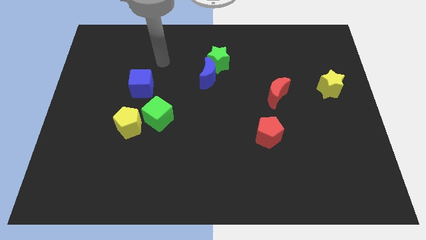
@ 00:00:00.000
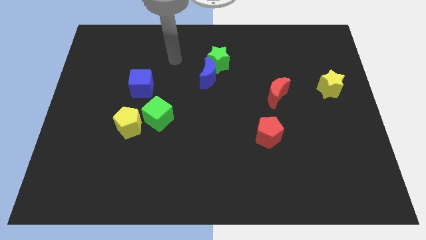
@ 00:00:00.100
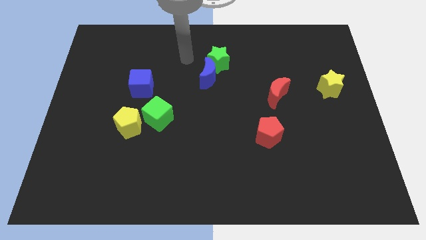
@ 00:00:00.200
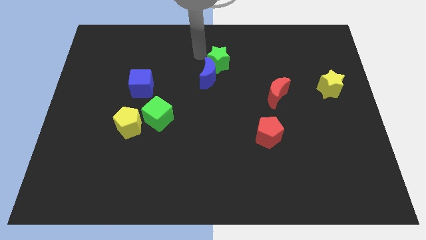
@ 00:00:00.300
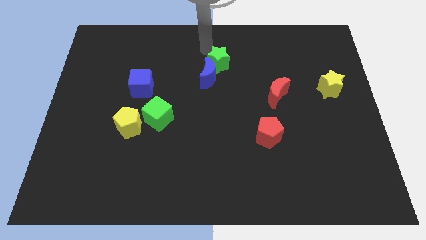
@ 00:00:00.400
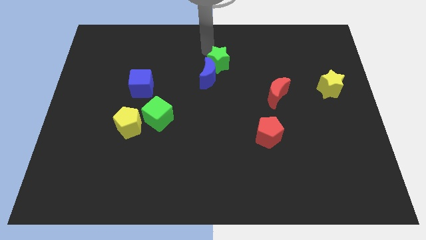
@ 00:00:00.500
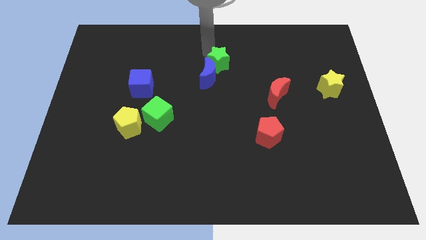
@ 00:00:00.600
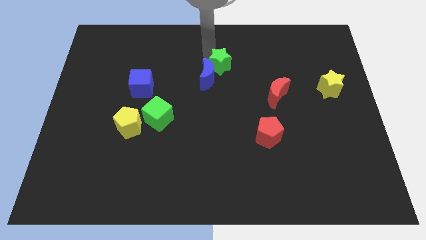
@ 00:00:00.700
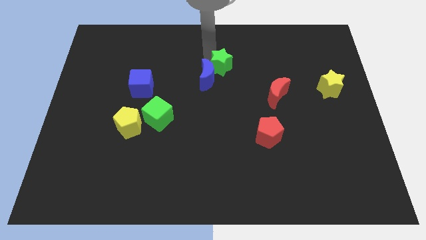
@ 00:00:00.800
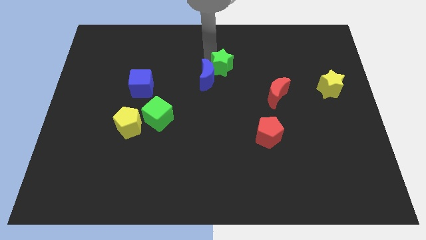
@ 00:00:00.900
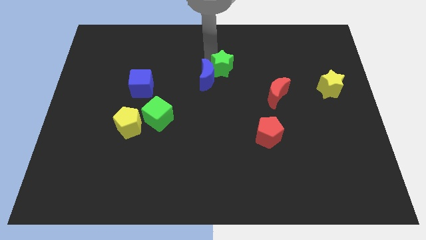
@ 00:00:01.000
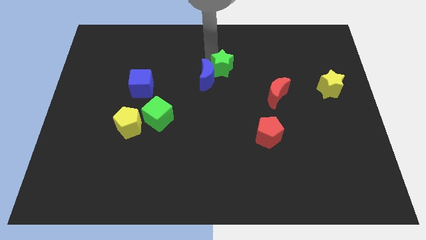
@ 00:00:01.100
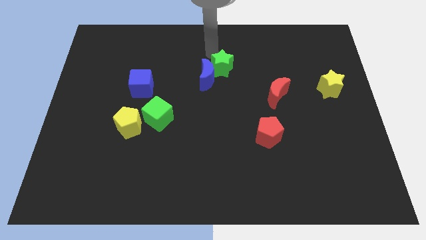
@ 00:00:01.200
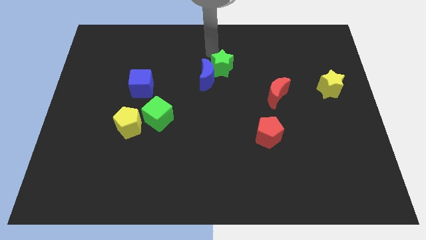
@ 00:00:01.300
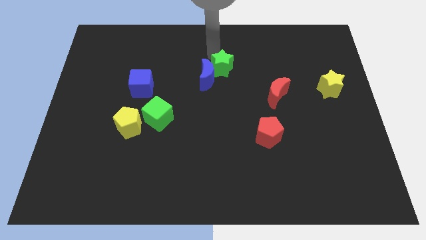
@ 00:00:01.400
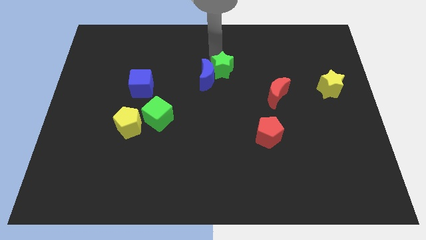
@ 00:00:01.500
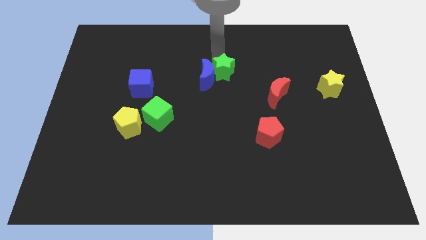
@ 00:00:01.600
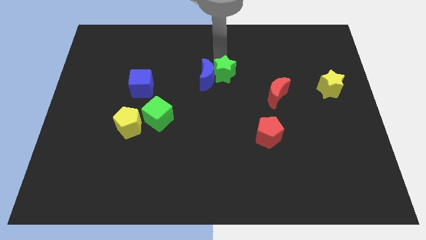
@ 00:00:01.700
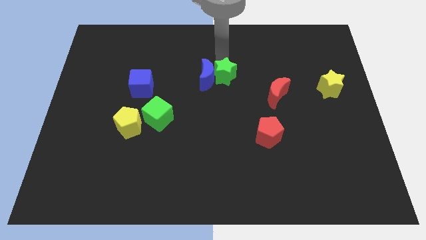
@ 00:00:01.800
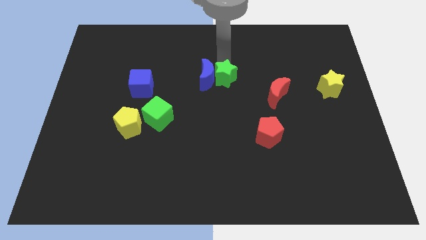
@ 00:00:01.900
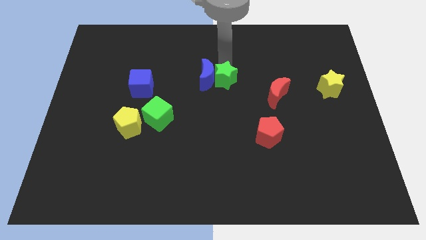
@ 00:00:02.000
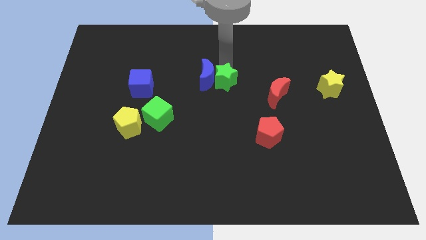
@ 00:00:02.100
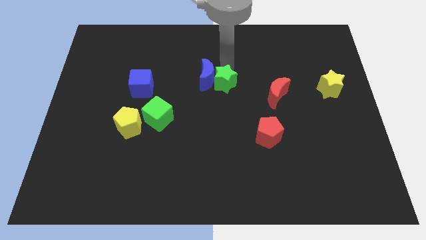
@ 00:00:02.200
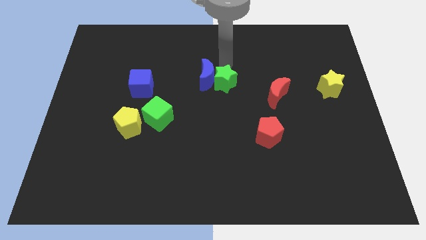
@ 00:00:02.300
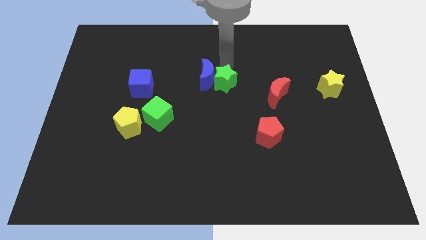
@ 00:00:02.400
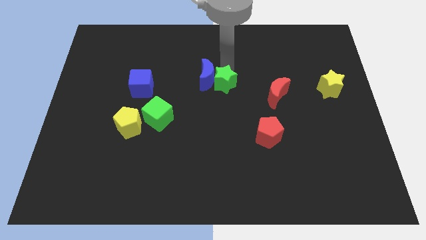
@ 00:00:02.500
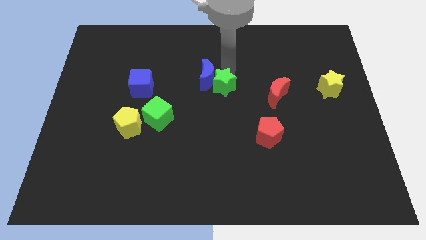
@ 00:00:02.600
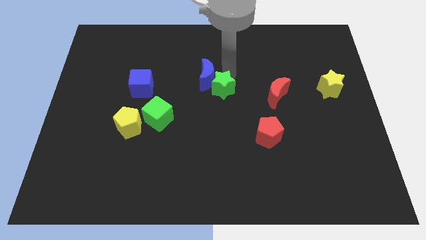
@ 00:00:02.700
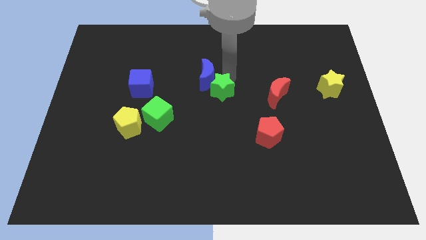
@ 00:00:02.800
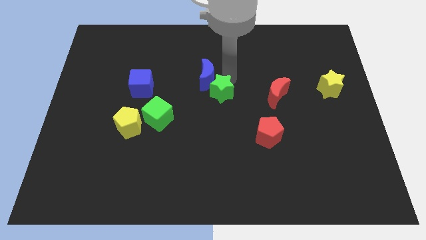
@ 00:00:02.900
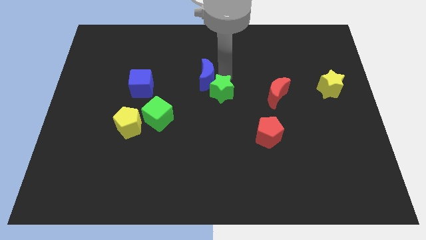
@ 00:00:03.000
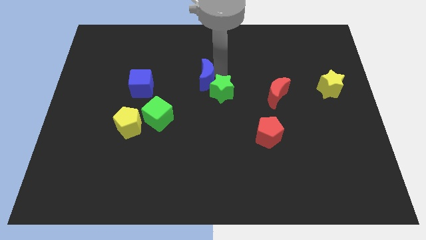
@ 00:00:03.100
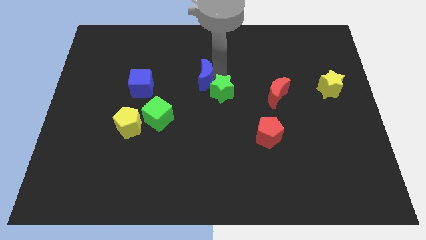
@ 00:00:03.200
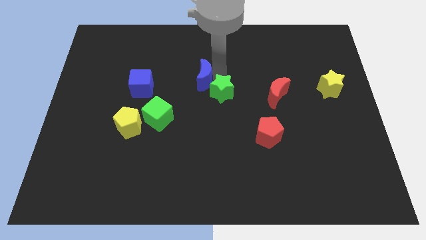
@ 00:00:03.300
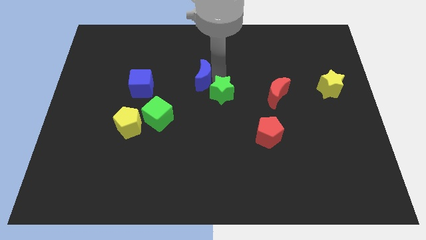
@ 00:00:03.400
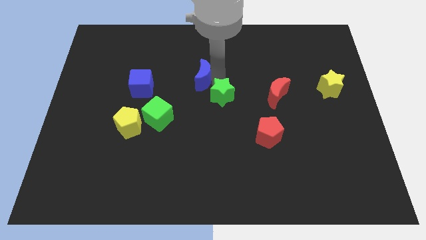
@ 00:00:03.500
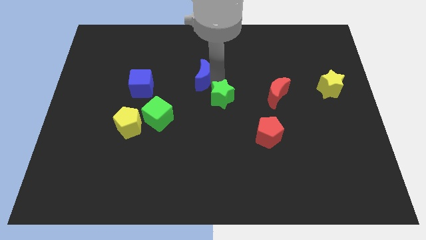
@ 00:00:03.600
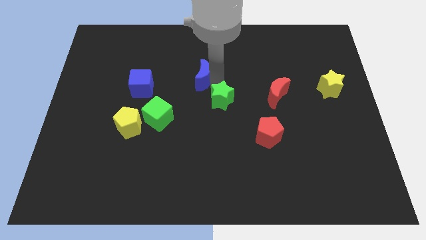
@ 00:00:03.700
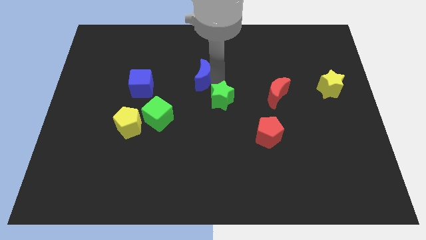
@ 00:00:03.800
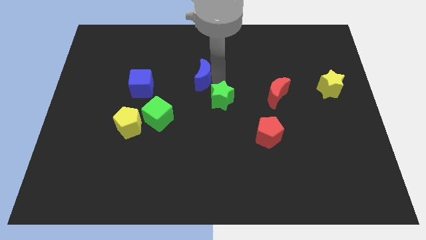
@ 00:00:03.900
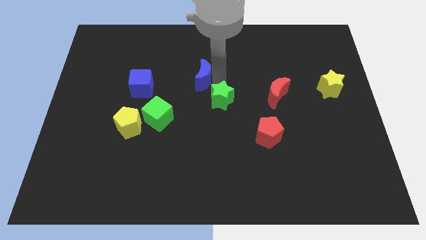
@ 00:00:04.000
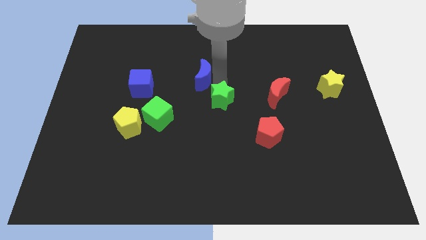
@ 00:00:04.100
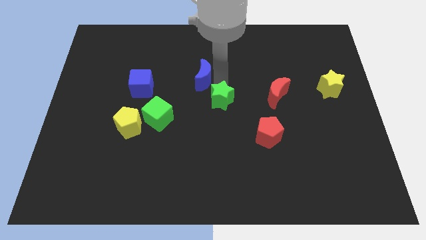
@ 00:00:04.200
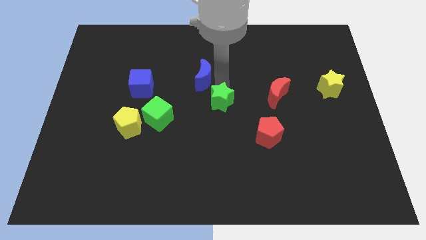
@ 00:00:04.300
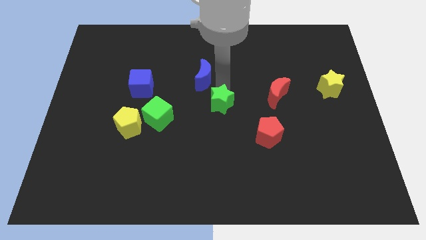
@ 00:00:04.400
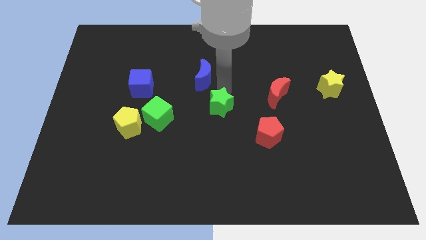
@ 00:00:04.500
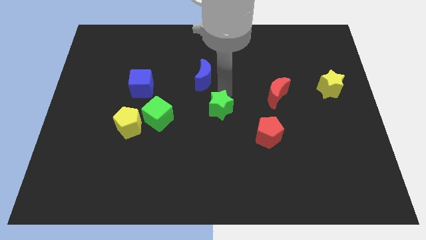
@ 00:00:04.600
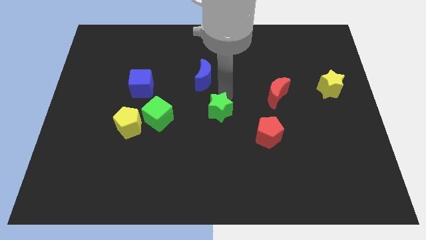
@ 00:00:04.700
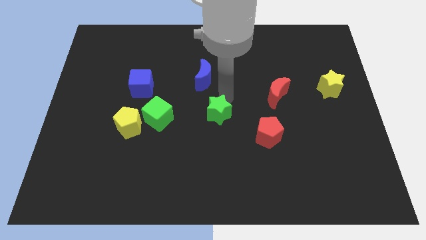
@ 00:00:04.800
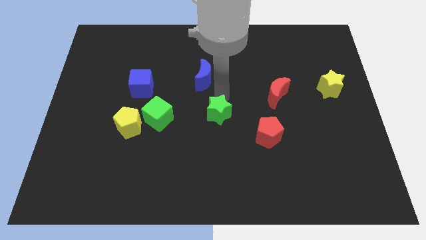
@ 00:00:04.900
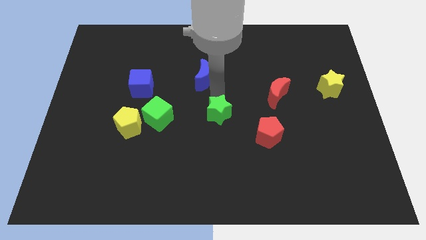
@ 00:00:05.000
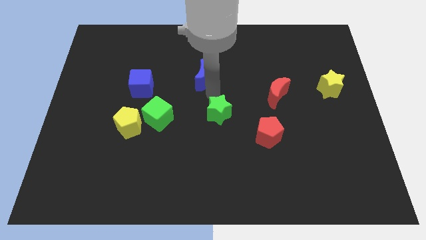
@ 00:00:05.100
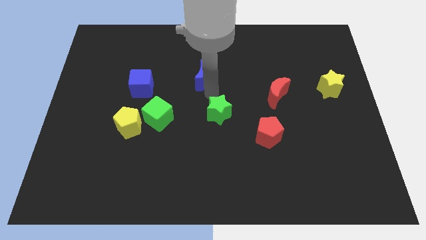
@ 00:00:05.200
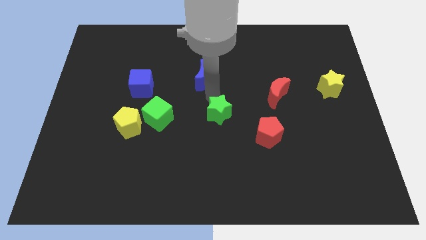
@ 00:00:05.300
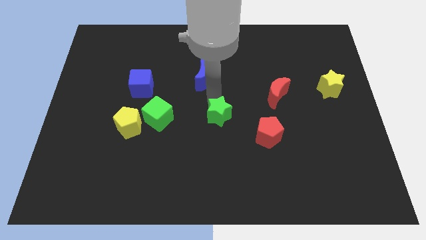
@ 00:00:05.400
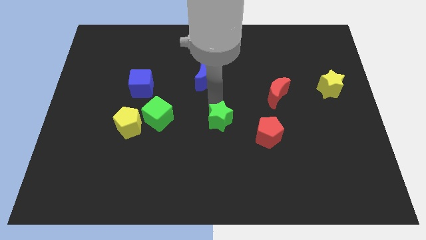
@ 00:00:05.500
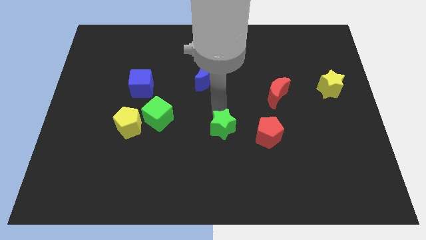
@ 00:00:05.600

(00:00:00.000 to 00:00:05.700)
push the green star down

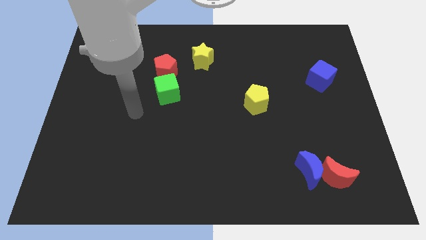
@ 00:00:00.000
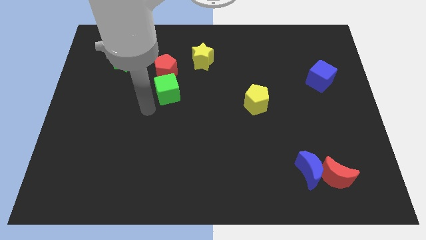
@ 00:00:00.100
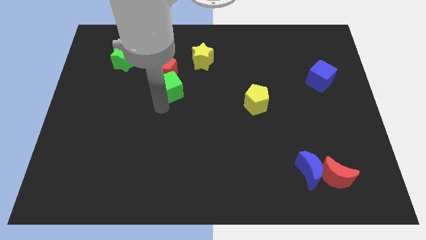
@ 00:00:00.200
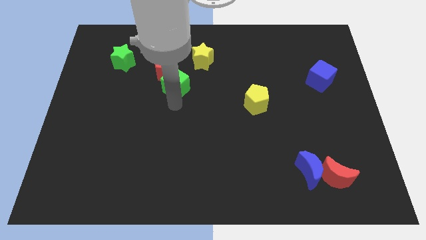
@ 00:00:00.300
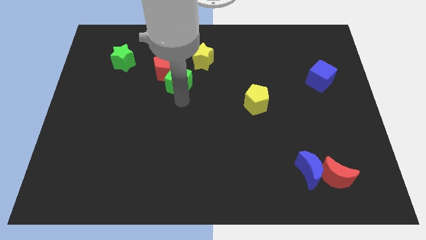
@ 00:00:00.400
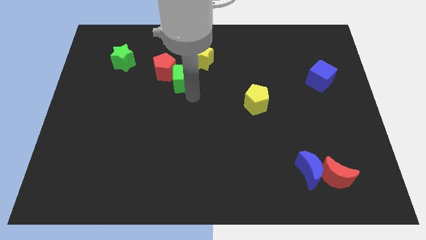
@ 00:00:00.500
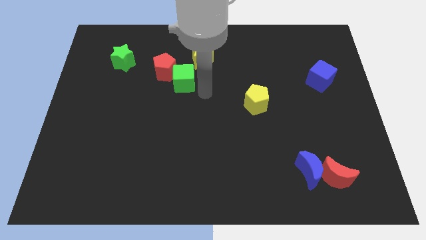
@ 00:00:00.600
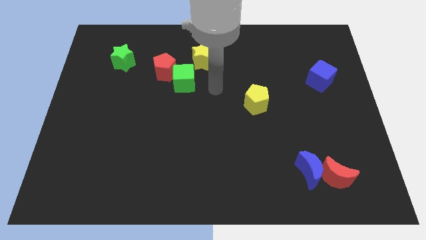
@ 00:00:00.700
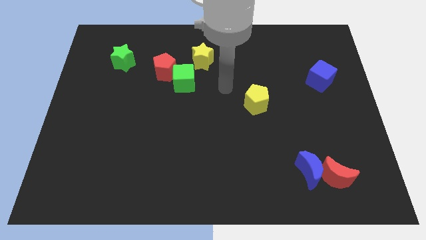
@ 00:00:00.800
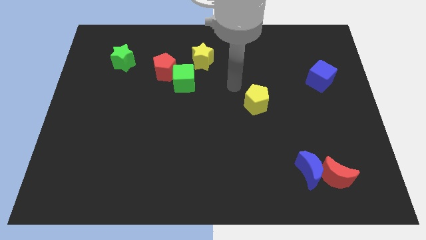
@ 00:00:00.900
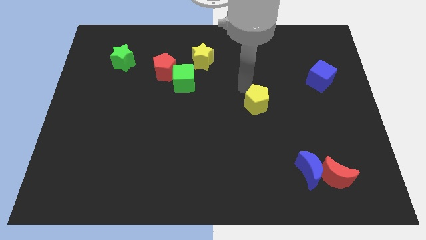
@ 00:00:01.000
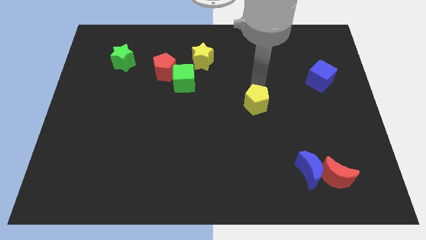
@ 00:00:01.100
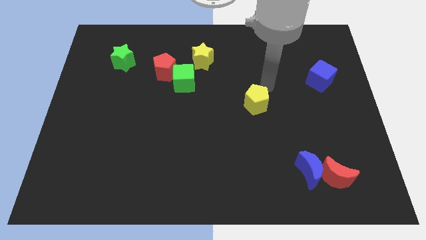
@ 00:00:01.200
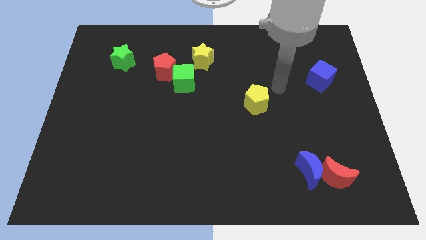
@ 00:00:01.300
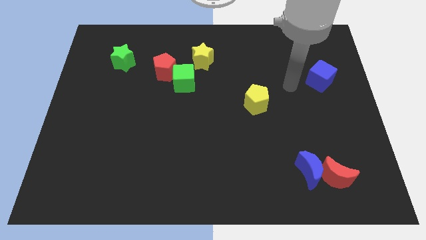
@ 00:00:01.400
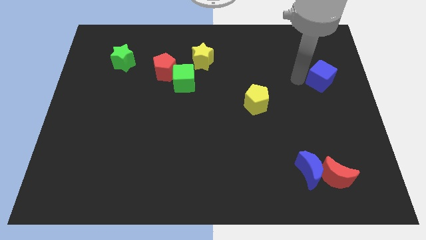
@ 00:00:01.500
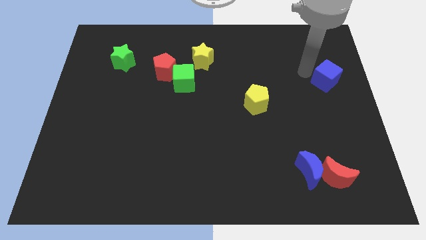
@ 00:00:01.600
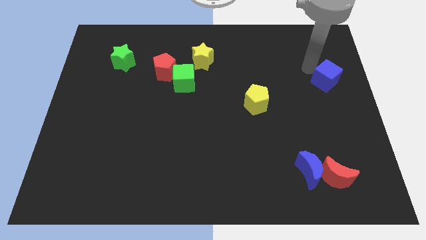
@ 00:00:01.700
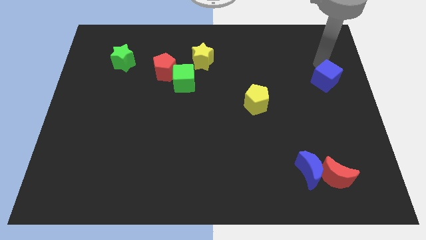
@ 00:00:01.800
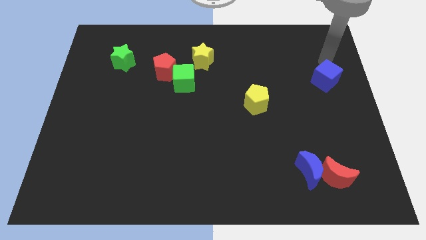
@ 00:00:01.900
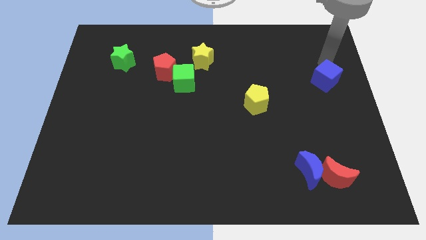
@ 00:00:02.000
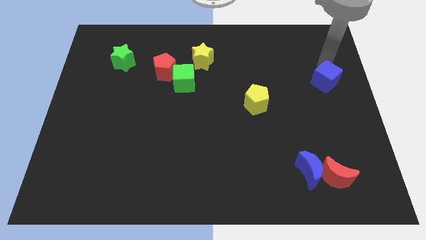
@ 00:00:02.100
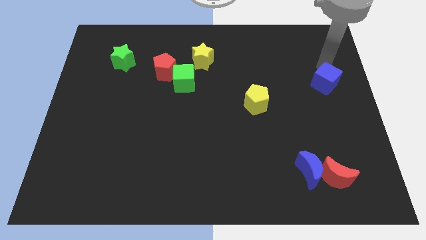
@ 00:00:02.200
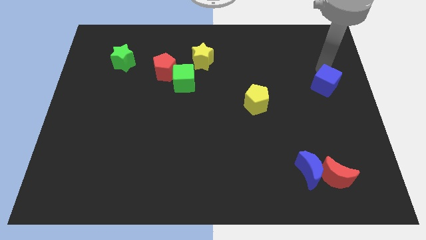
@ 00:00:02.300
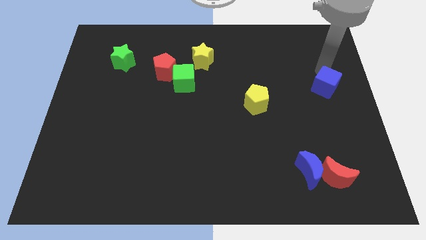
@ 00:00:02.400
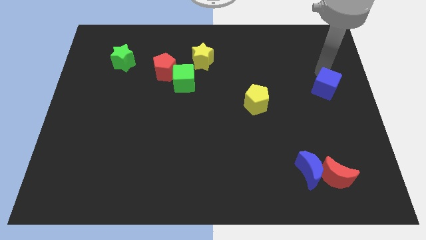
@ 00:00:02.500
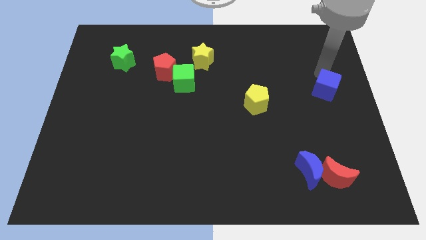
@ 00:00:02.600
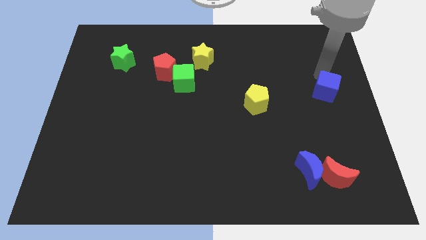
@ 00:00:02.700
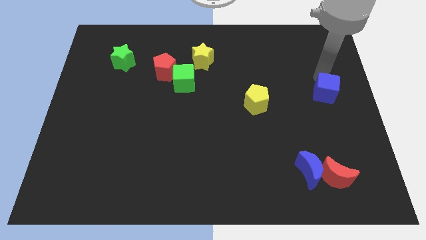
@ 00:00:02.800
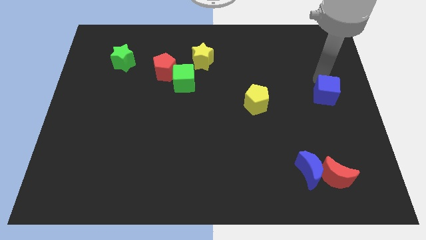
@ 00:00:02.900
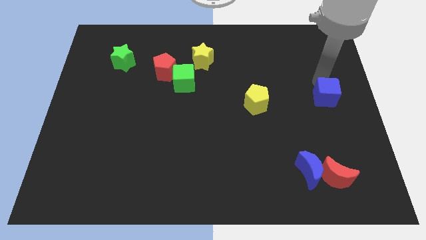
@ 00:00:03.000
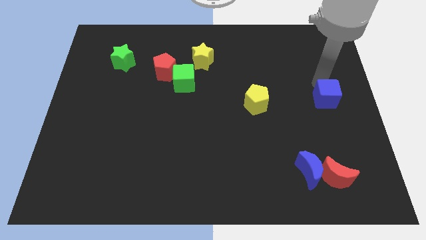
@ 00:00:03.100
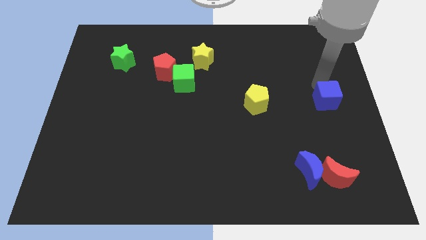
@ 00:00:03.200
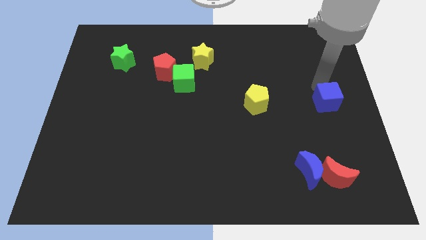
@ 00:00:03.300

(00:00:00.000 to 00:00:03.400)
slightly push the blue cube downwards
